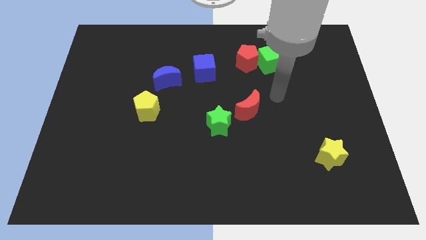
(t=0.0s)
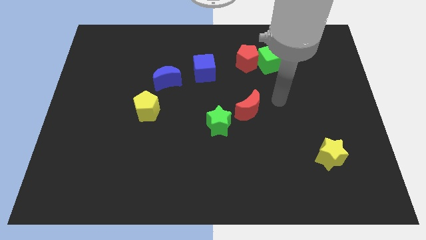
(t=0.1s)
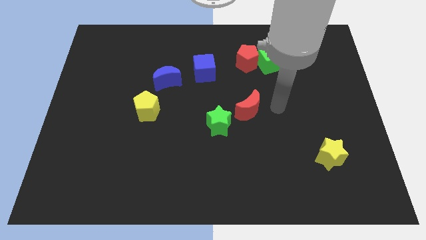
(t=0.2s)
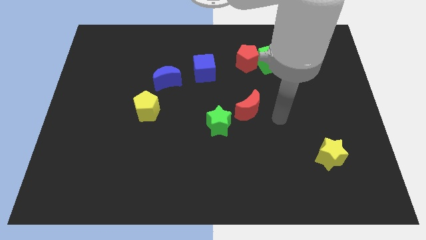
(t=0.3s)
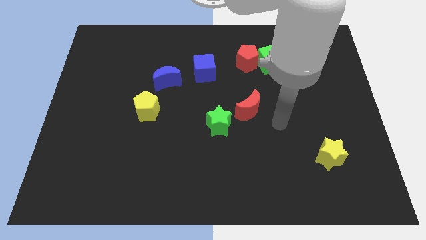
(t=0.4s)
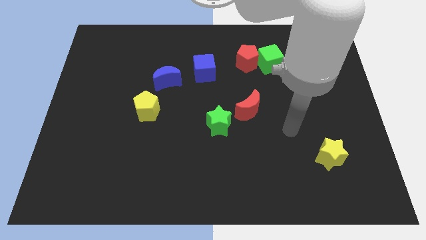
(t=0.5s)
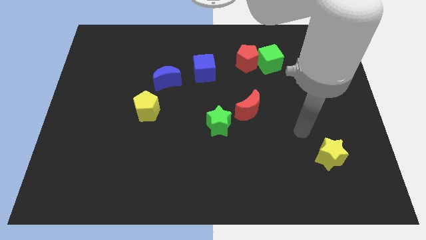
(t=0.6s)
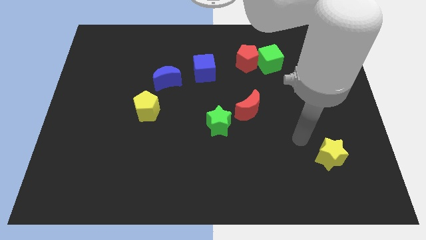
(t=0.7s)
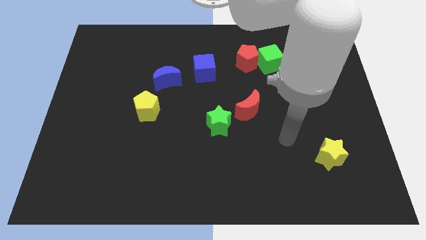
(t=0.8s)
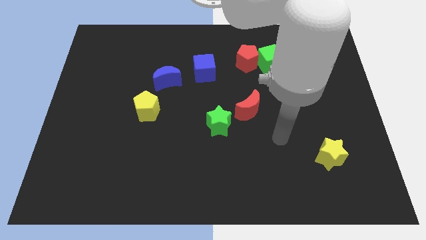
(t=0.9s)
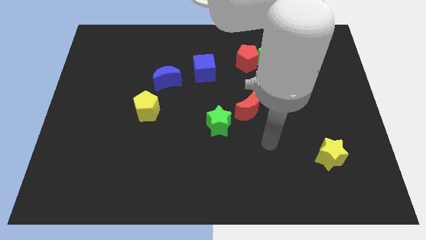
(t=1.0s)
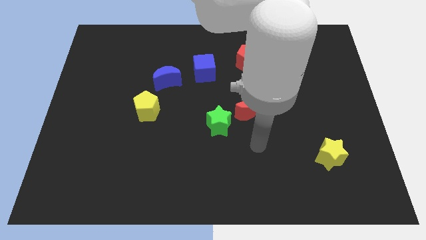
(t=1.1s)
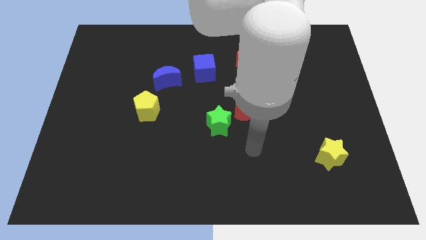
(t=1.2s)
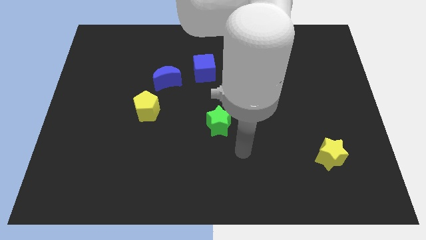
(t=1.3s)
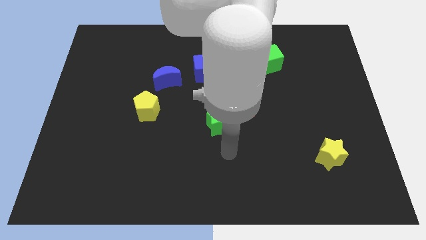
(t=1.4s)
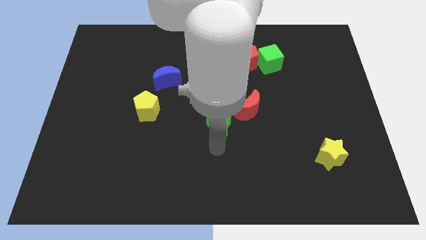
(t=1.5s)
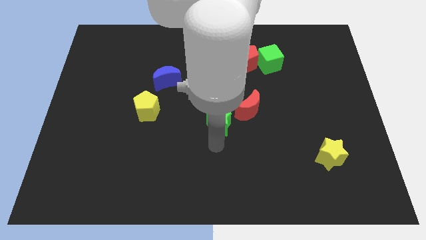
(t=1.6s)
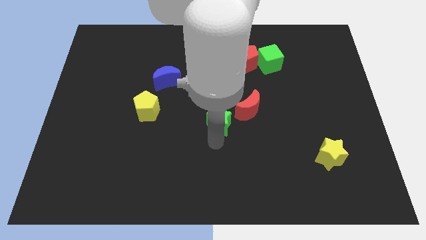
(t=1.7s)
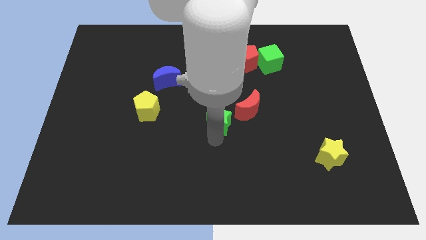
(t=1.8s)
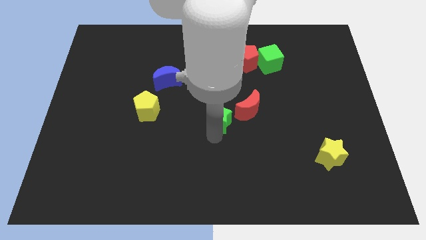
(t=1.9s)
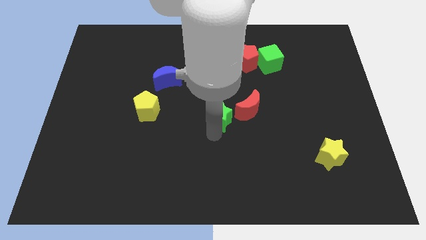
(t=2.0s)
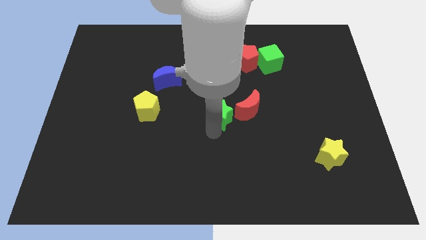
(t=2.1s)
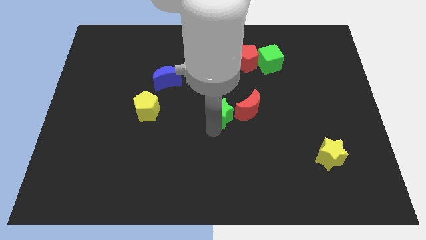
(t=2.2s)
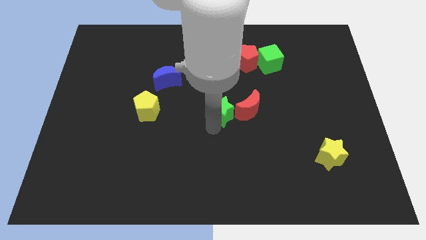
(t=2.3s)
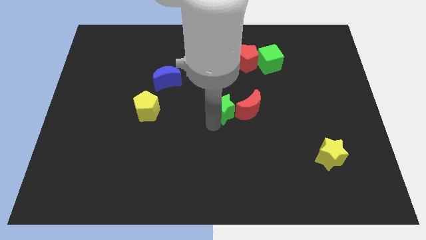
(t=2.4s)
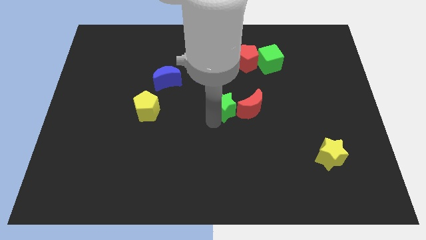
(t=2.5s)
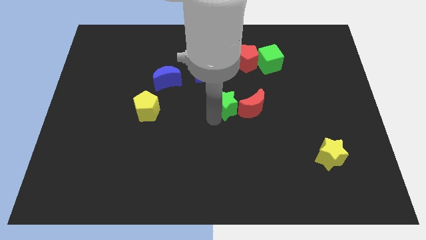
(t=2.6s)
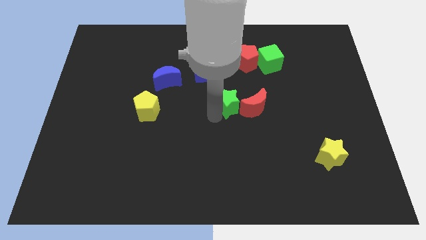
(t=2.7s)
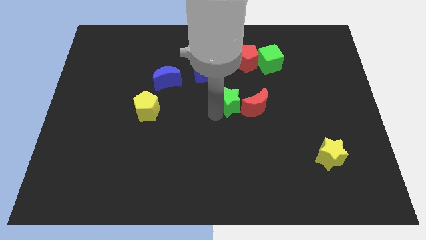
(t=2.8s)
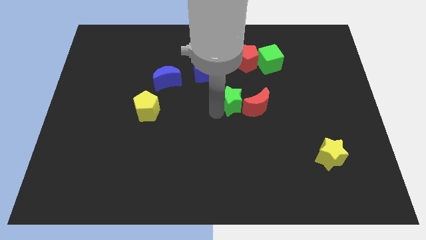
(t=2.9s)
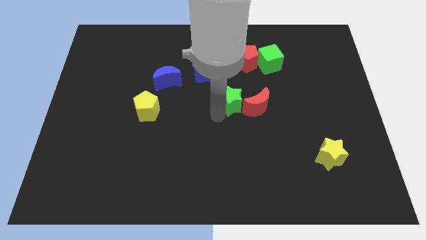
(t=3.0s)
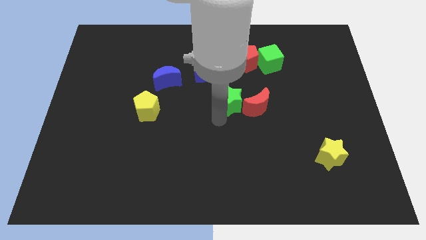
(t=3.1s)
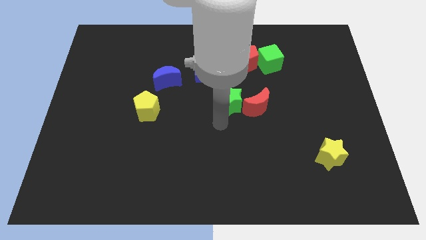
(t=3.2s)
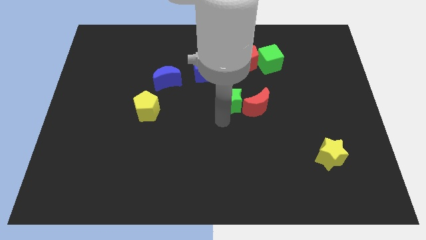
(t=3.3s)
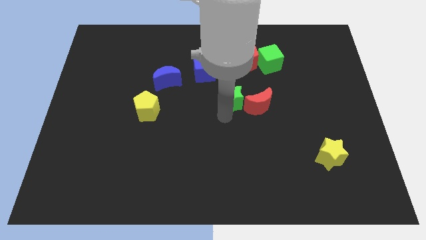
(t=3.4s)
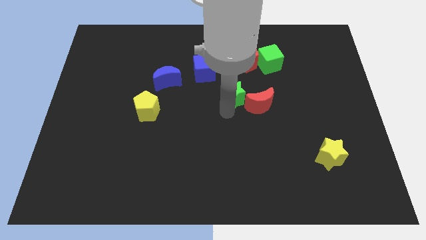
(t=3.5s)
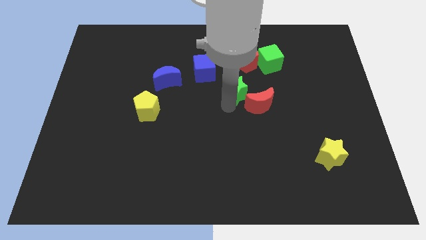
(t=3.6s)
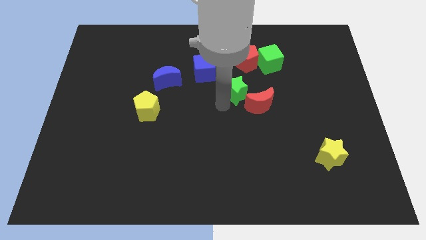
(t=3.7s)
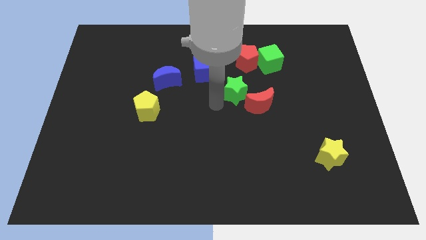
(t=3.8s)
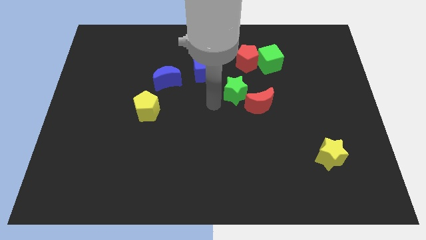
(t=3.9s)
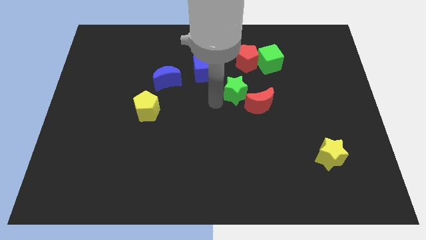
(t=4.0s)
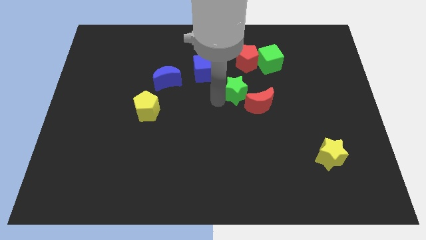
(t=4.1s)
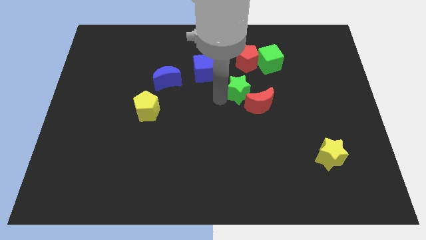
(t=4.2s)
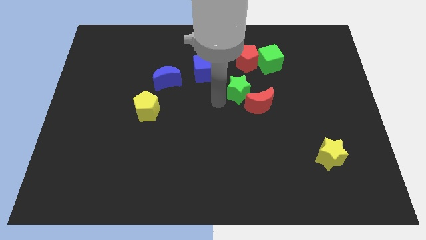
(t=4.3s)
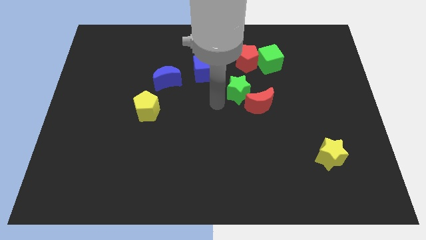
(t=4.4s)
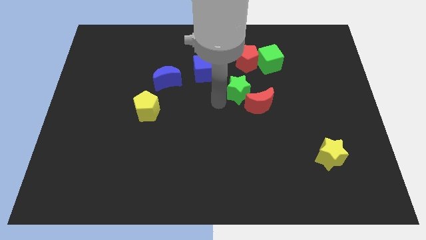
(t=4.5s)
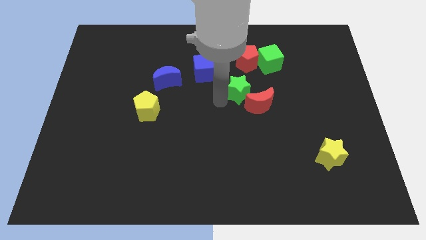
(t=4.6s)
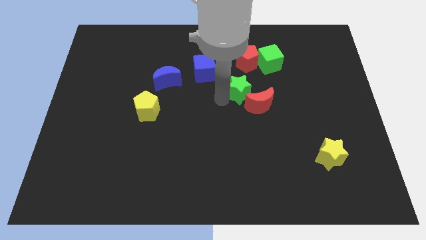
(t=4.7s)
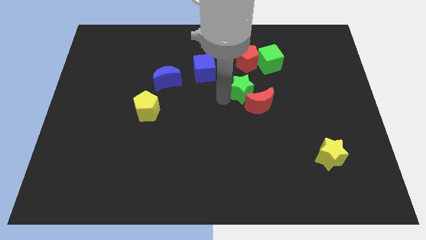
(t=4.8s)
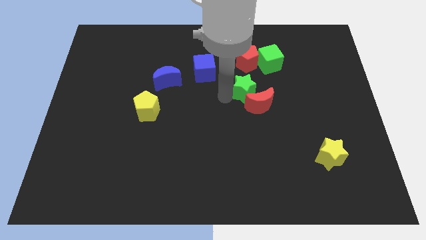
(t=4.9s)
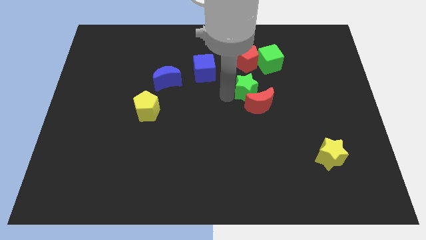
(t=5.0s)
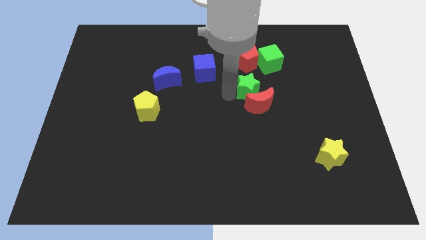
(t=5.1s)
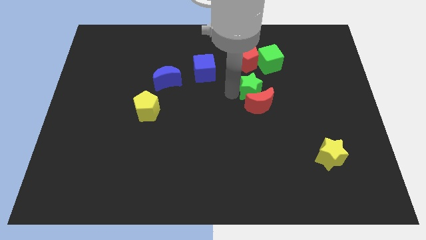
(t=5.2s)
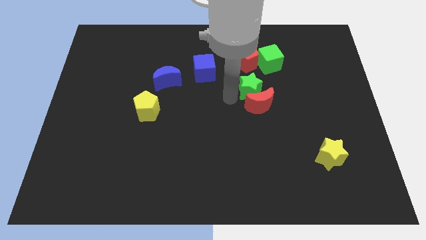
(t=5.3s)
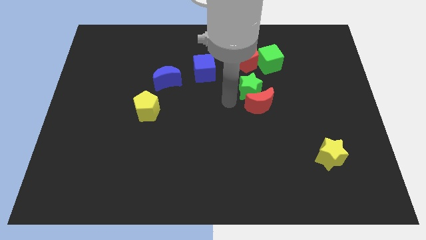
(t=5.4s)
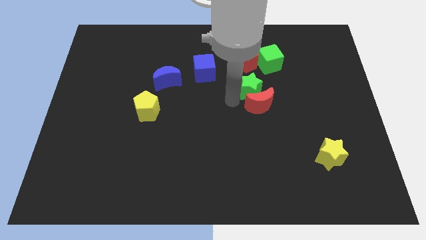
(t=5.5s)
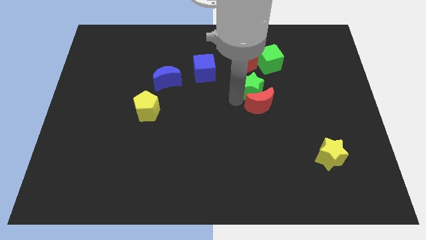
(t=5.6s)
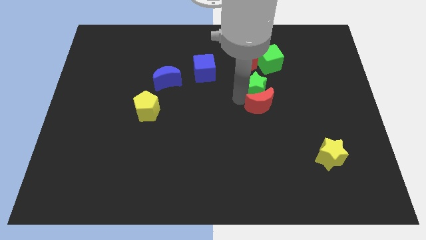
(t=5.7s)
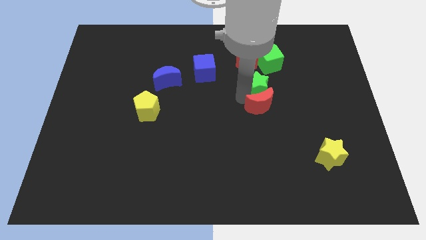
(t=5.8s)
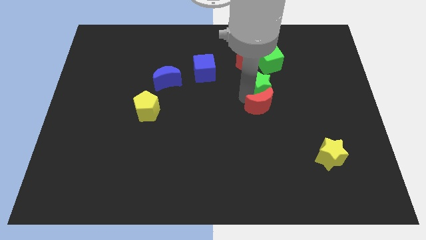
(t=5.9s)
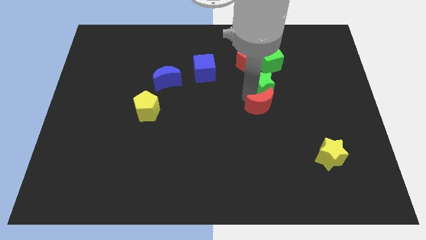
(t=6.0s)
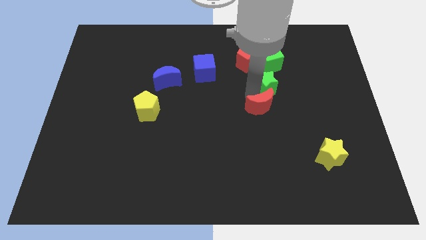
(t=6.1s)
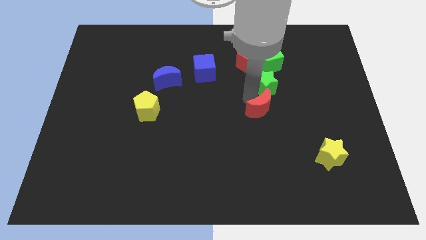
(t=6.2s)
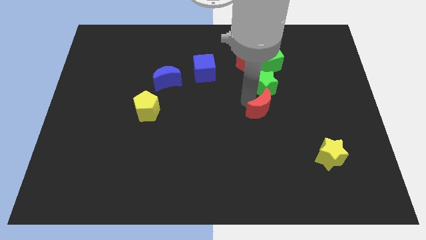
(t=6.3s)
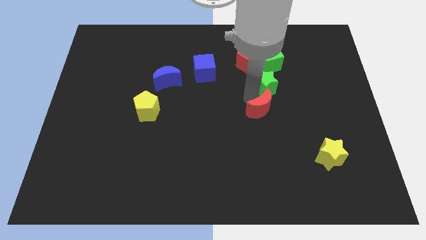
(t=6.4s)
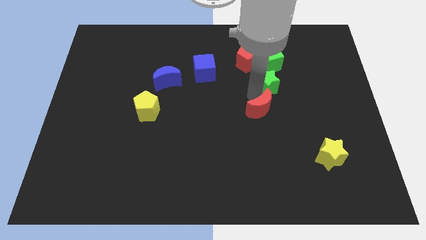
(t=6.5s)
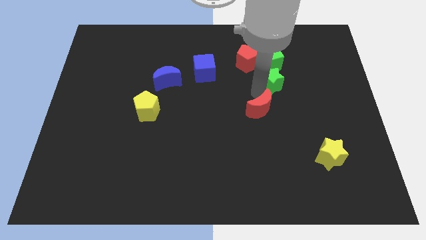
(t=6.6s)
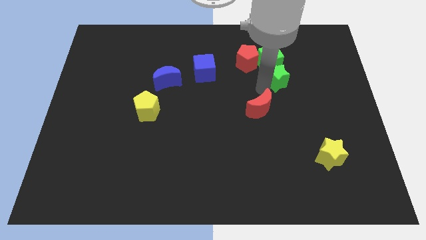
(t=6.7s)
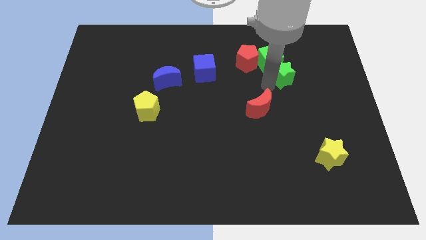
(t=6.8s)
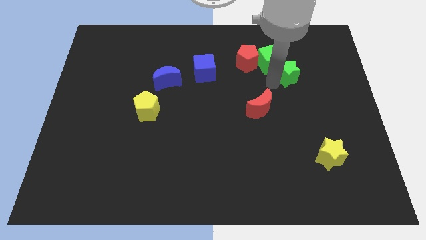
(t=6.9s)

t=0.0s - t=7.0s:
move the green star just right of the green cube

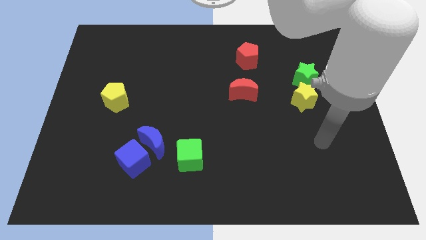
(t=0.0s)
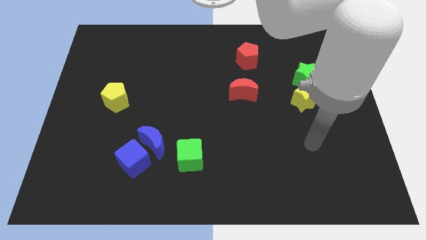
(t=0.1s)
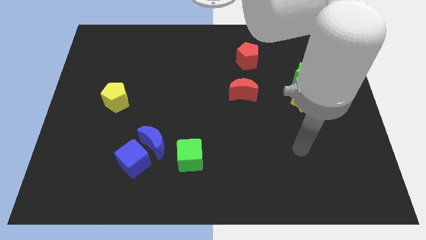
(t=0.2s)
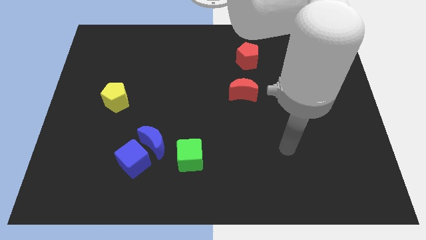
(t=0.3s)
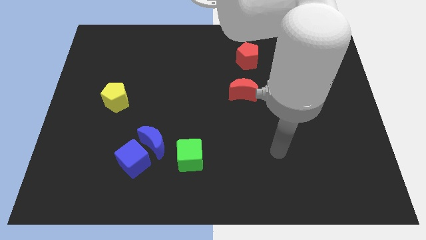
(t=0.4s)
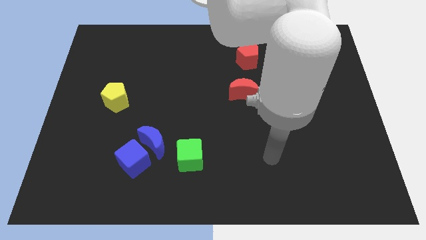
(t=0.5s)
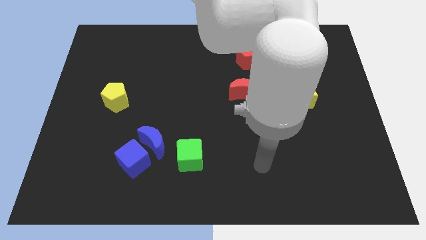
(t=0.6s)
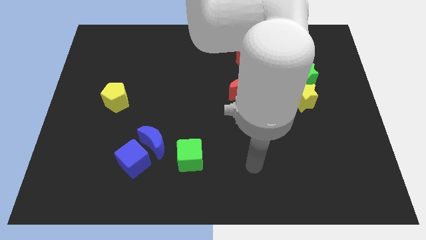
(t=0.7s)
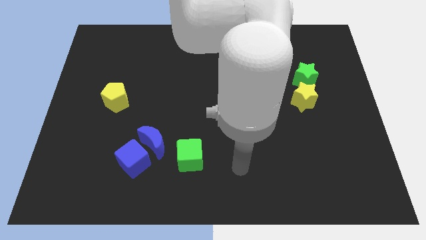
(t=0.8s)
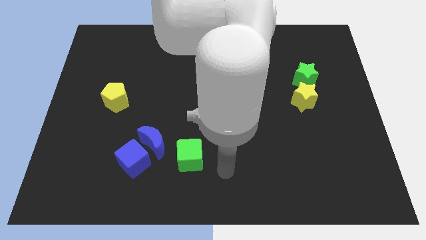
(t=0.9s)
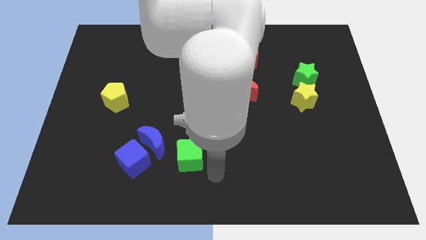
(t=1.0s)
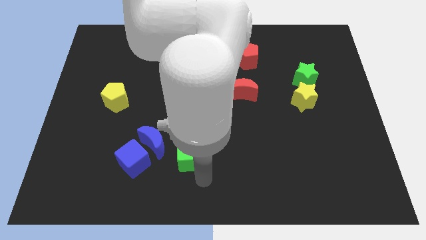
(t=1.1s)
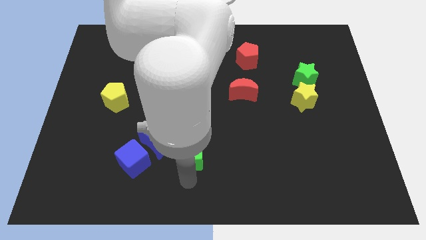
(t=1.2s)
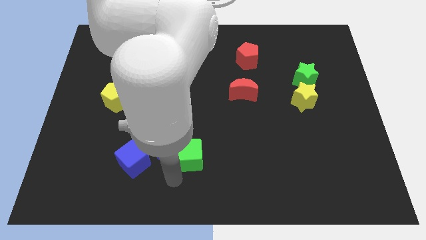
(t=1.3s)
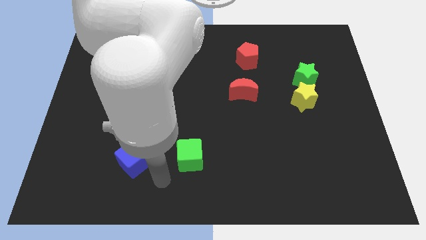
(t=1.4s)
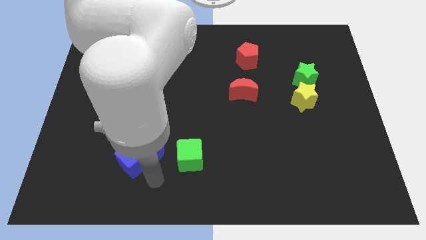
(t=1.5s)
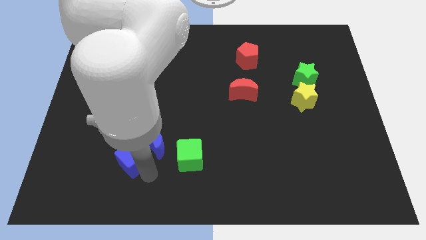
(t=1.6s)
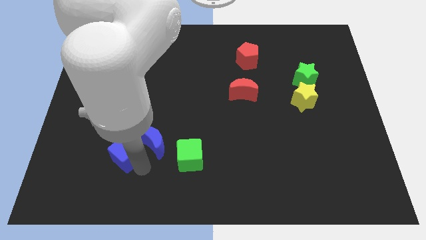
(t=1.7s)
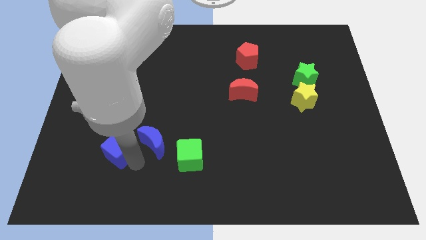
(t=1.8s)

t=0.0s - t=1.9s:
slide the blue cube below the yellow pentagon
